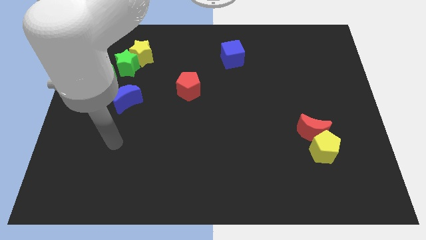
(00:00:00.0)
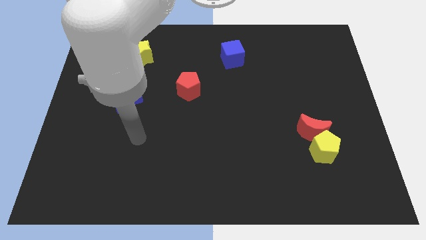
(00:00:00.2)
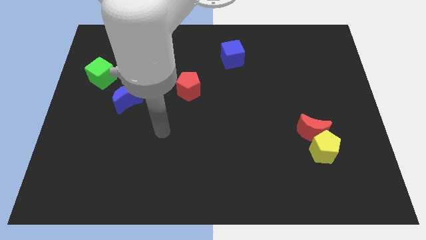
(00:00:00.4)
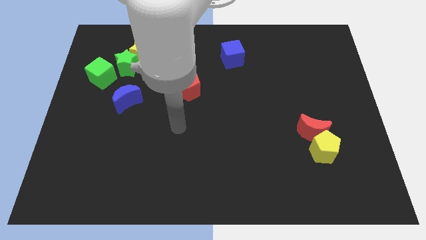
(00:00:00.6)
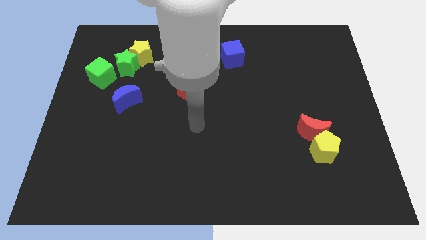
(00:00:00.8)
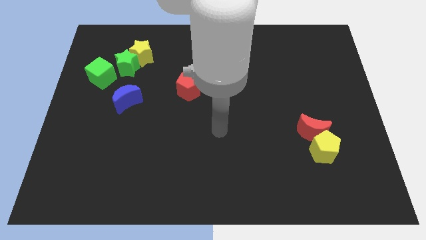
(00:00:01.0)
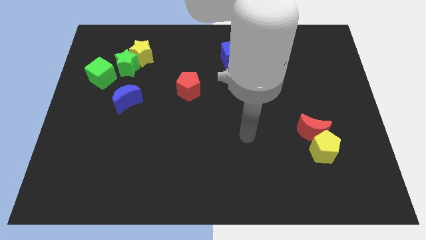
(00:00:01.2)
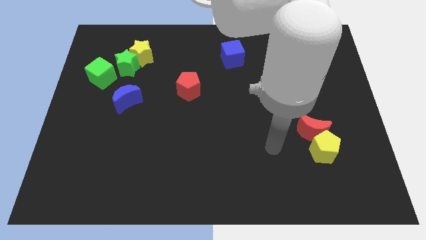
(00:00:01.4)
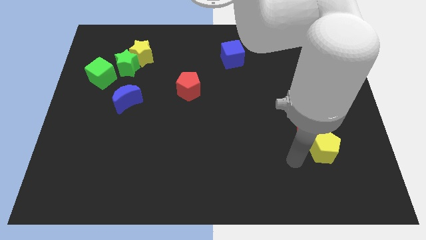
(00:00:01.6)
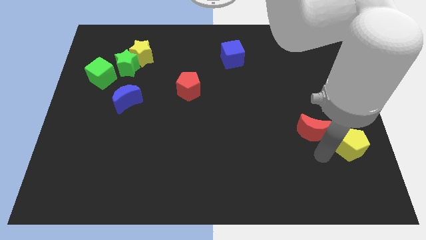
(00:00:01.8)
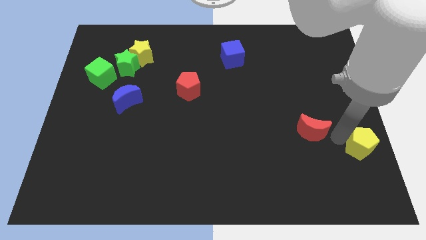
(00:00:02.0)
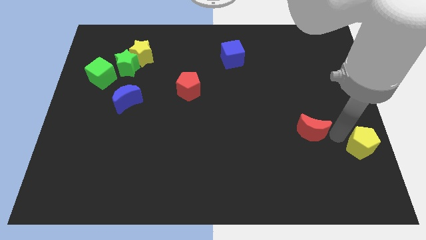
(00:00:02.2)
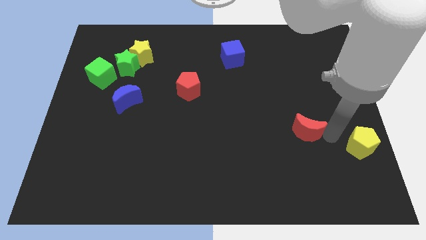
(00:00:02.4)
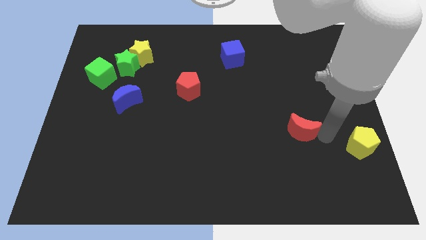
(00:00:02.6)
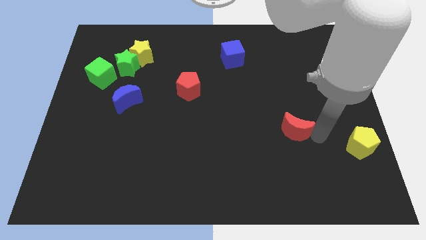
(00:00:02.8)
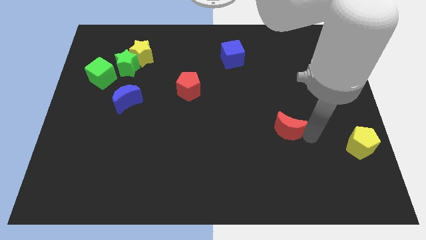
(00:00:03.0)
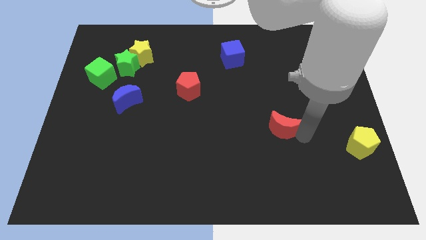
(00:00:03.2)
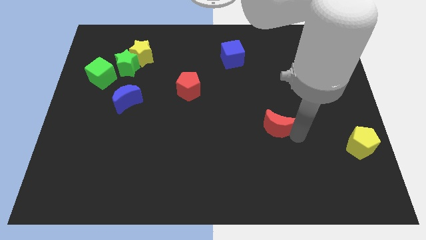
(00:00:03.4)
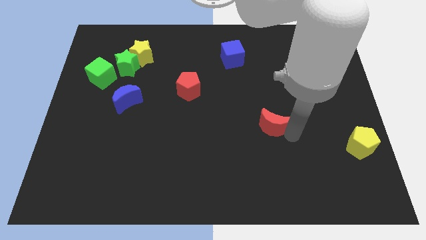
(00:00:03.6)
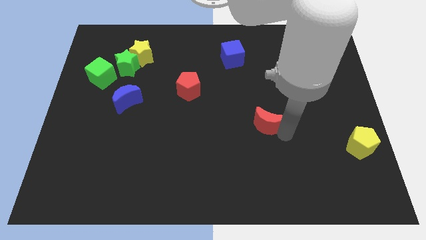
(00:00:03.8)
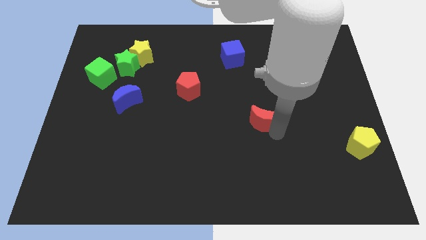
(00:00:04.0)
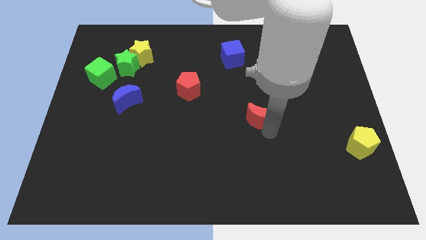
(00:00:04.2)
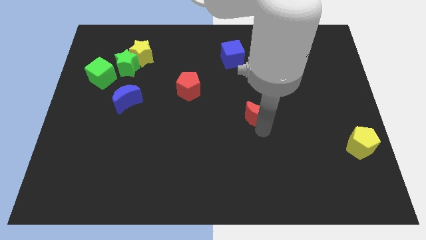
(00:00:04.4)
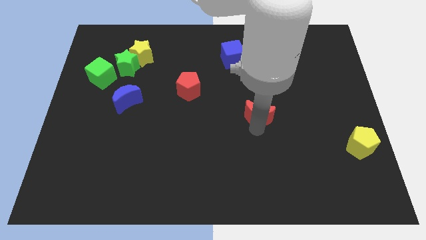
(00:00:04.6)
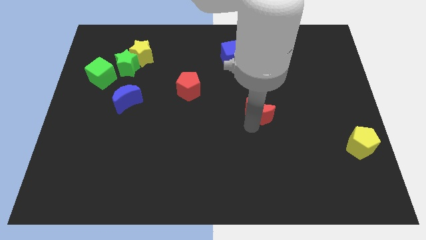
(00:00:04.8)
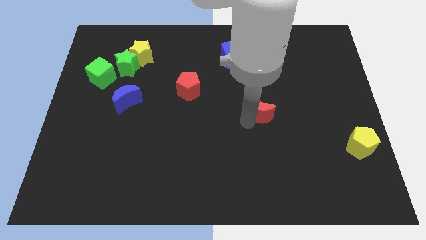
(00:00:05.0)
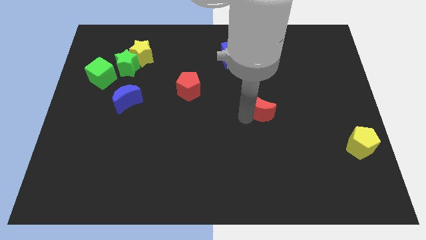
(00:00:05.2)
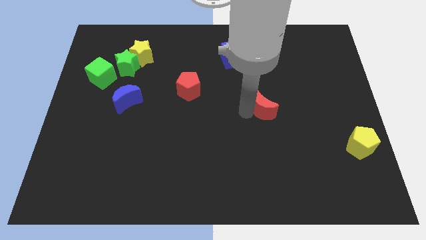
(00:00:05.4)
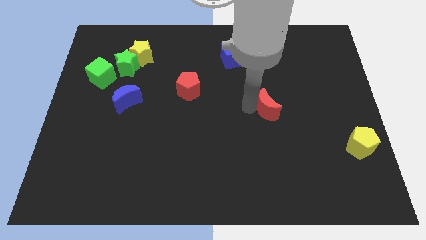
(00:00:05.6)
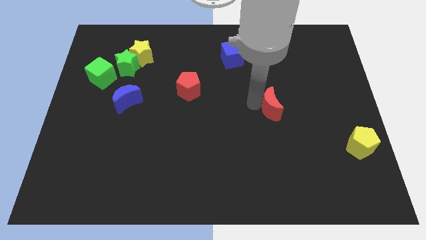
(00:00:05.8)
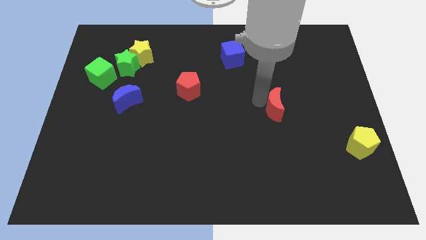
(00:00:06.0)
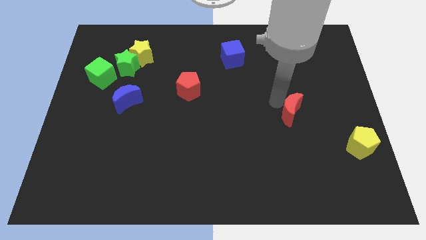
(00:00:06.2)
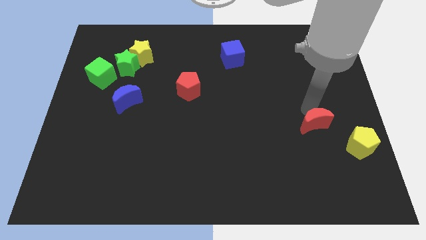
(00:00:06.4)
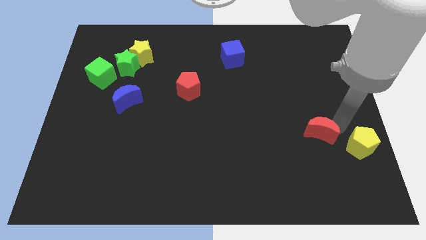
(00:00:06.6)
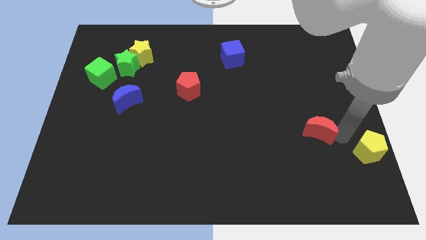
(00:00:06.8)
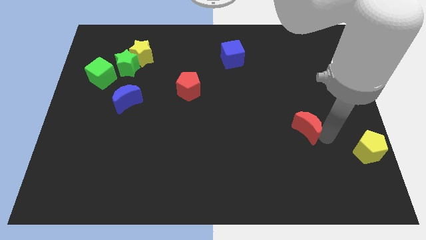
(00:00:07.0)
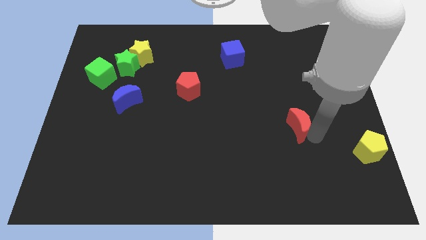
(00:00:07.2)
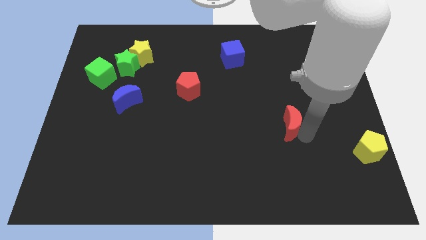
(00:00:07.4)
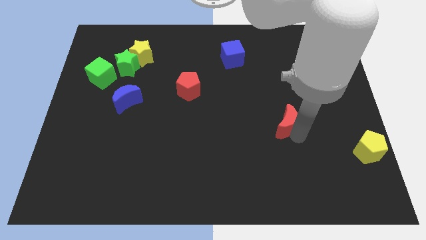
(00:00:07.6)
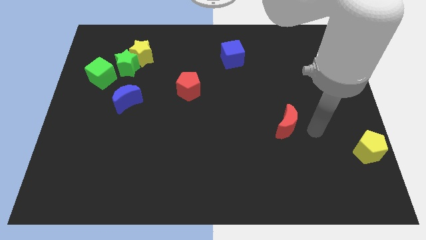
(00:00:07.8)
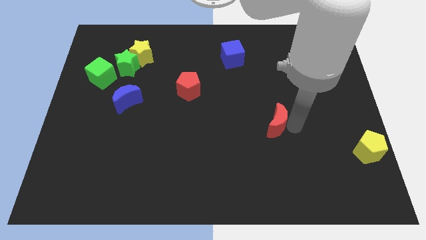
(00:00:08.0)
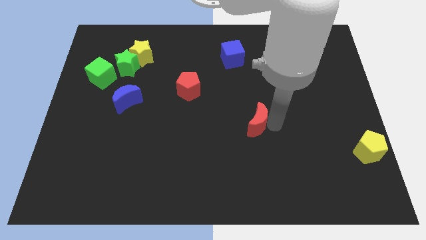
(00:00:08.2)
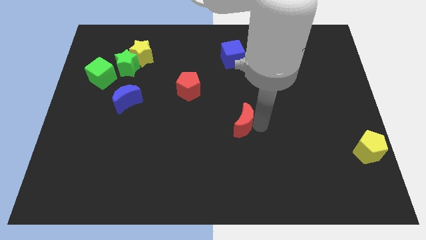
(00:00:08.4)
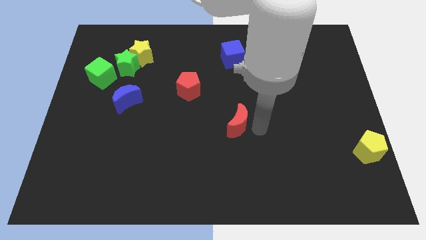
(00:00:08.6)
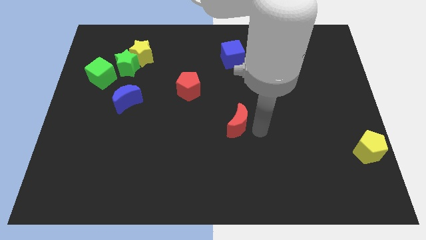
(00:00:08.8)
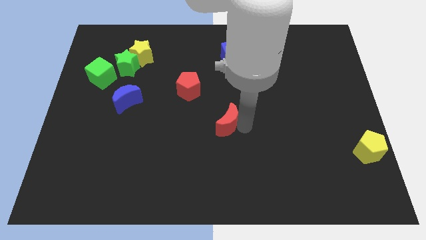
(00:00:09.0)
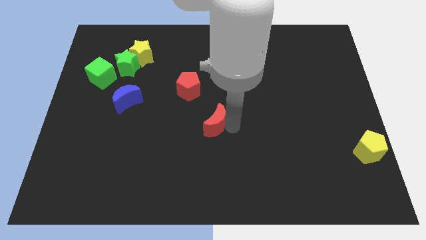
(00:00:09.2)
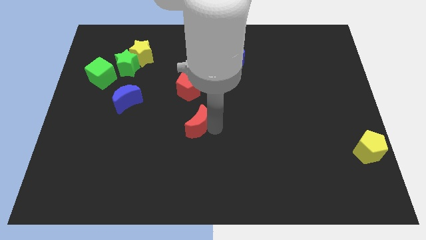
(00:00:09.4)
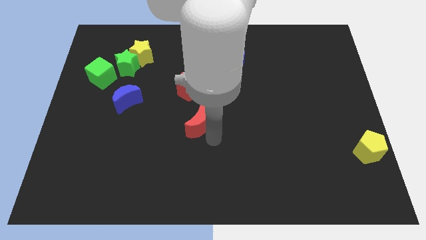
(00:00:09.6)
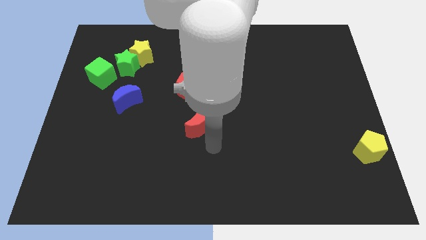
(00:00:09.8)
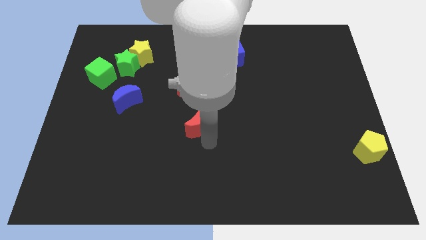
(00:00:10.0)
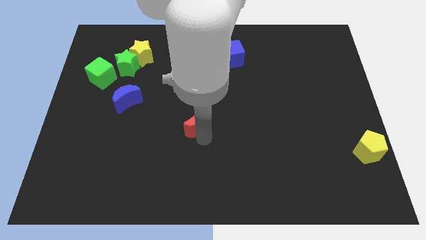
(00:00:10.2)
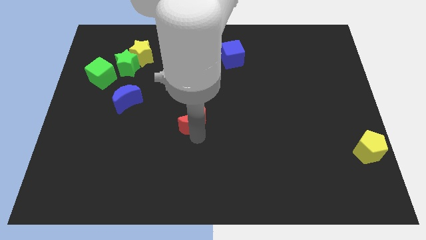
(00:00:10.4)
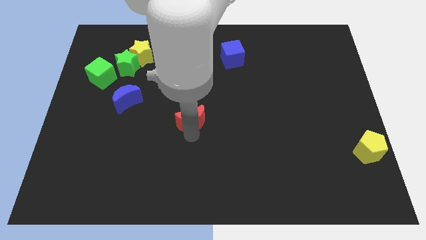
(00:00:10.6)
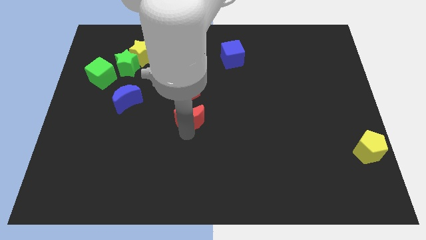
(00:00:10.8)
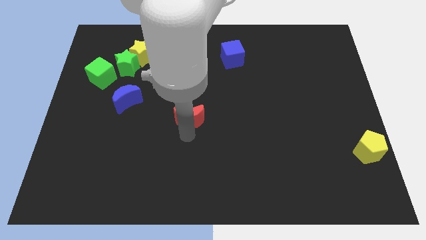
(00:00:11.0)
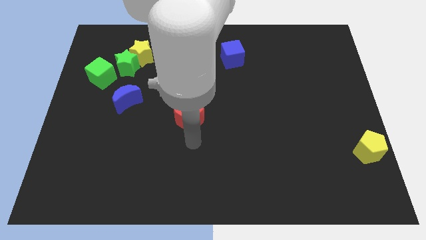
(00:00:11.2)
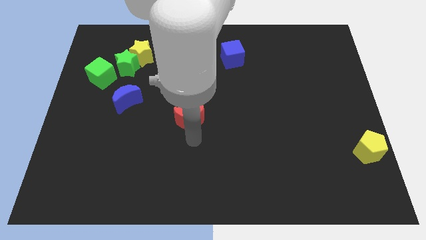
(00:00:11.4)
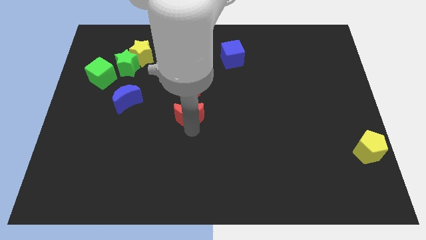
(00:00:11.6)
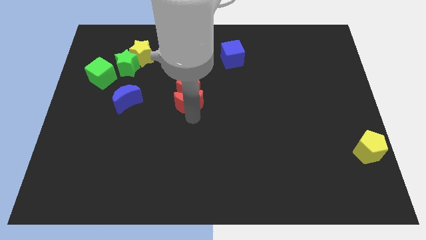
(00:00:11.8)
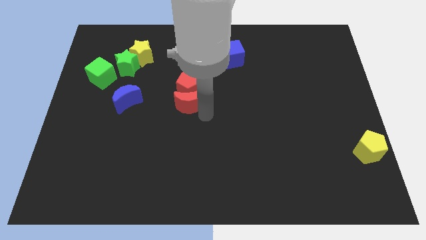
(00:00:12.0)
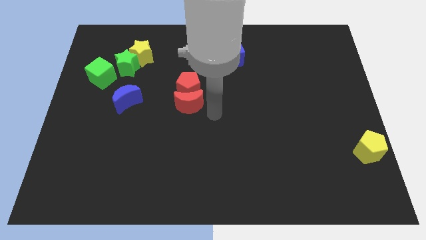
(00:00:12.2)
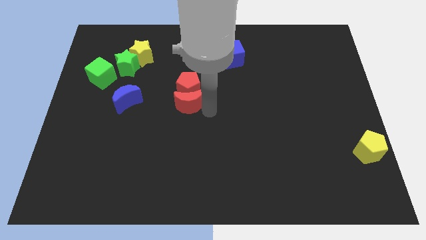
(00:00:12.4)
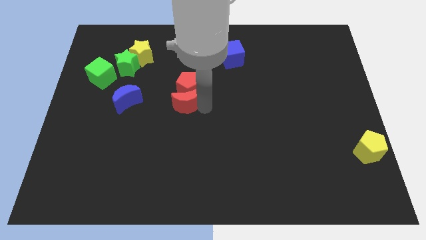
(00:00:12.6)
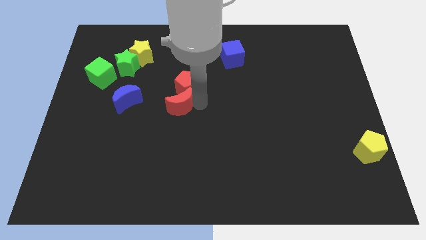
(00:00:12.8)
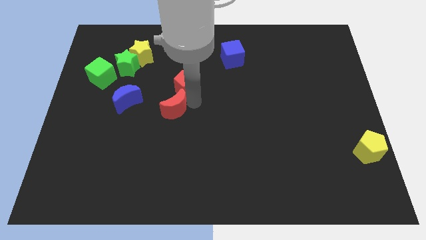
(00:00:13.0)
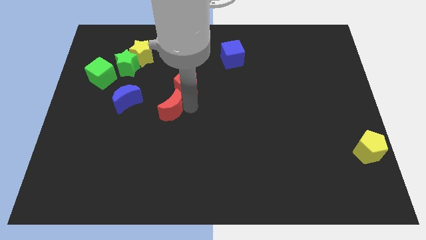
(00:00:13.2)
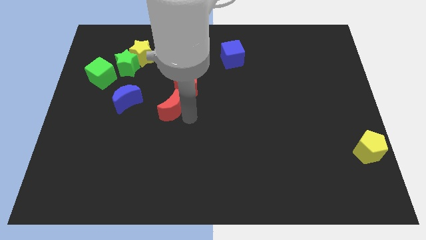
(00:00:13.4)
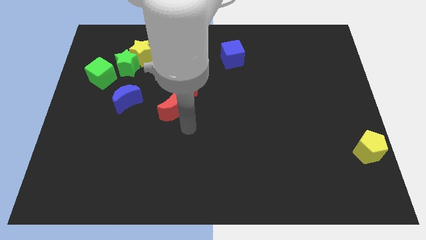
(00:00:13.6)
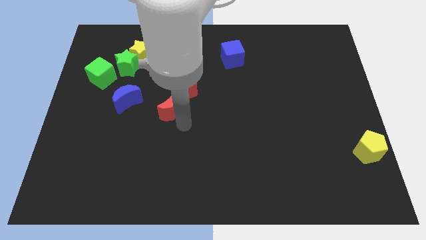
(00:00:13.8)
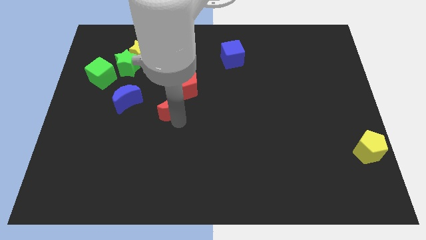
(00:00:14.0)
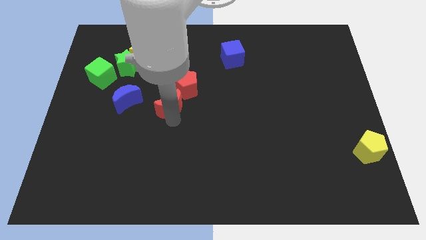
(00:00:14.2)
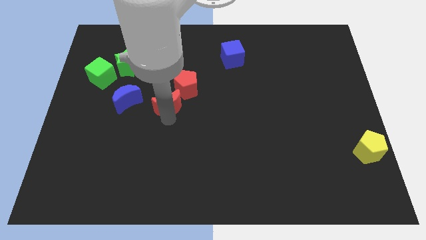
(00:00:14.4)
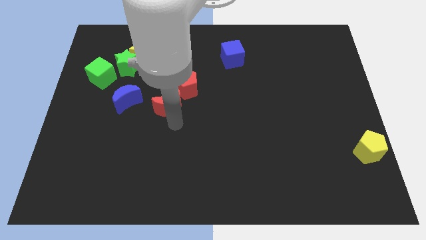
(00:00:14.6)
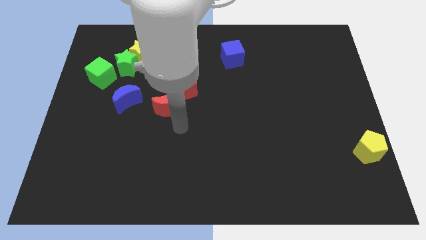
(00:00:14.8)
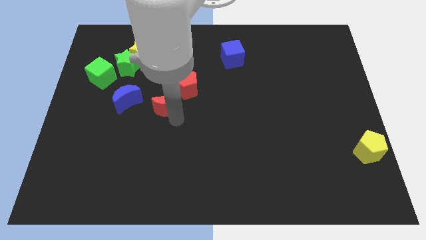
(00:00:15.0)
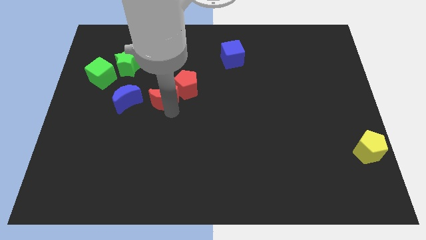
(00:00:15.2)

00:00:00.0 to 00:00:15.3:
slide the red moon to the left of the red pentagon
